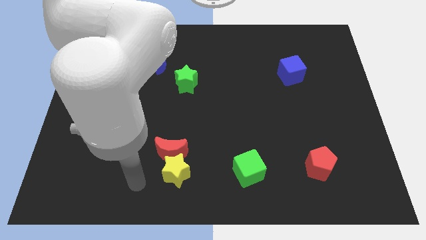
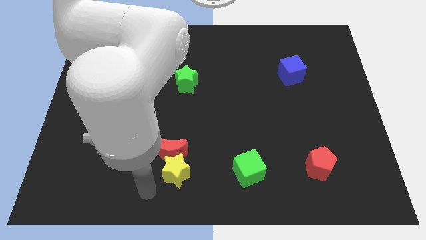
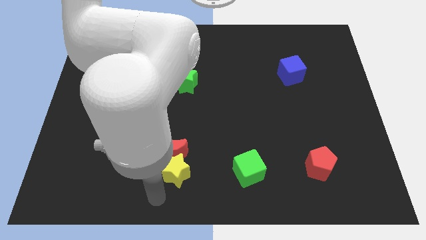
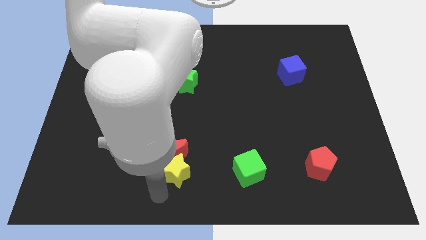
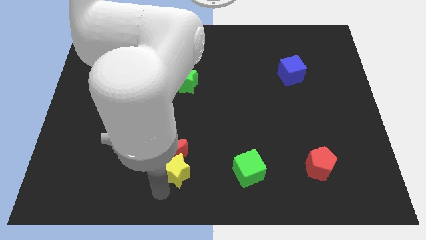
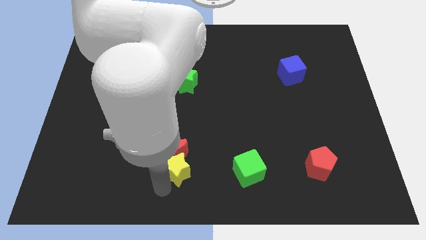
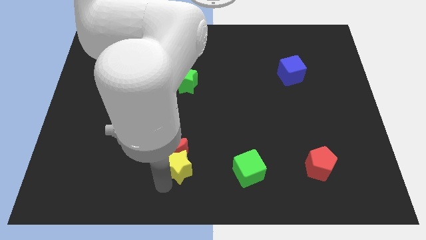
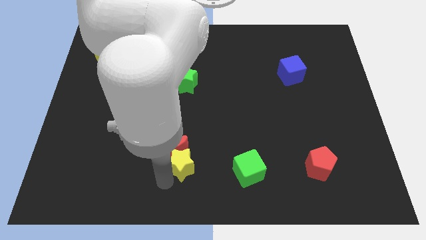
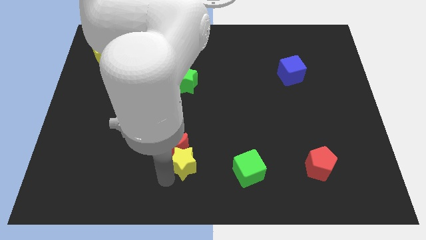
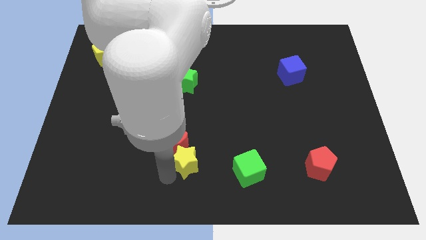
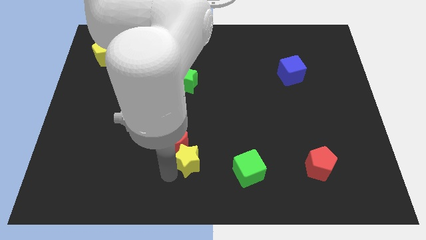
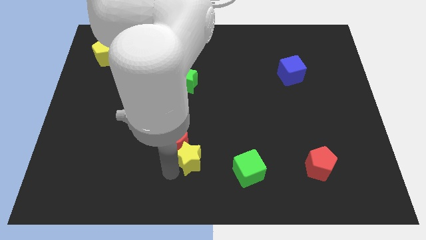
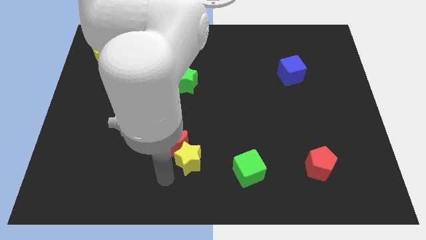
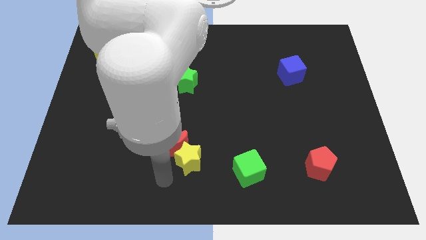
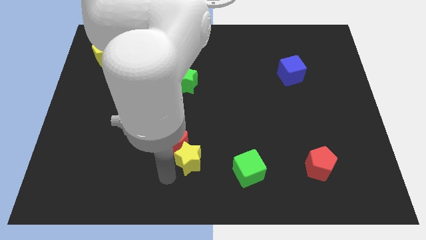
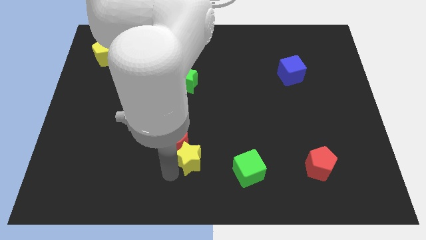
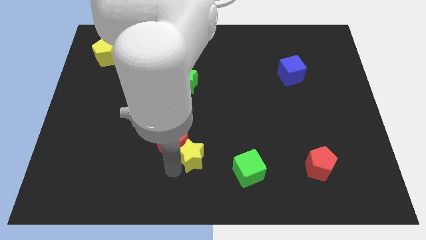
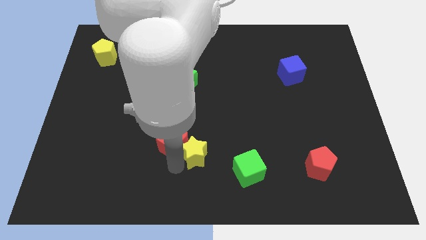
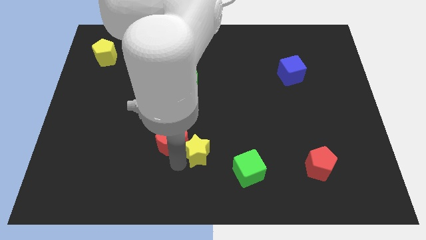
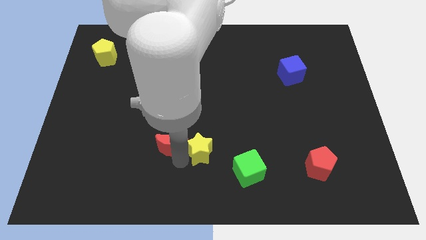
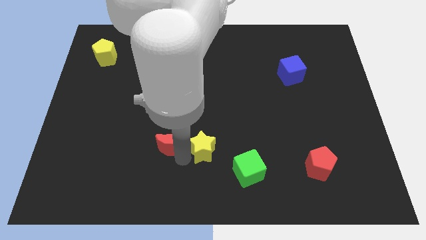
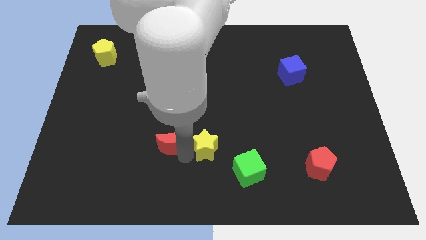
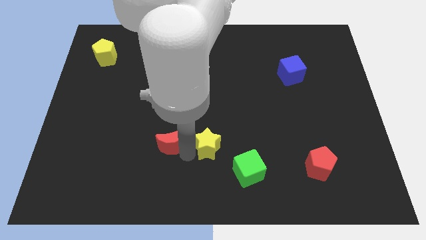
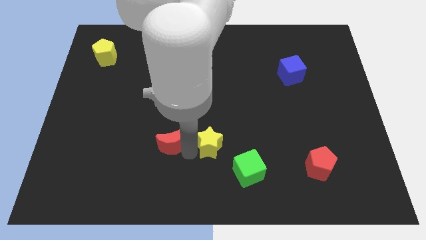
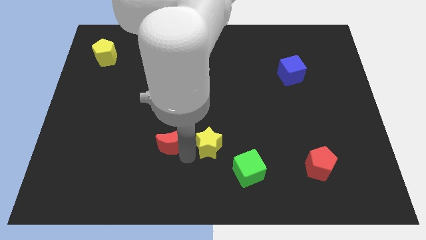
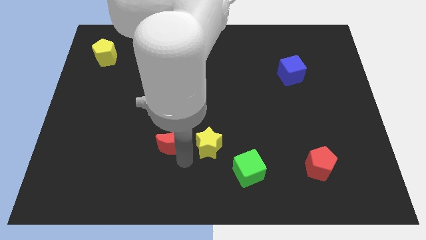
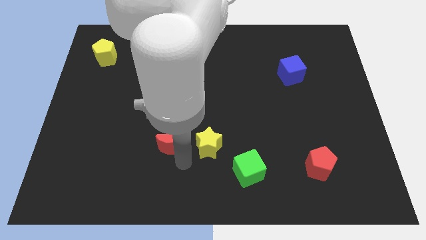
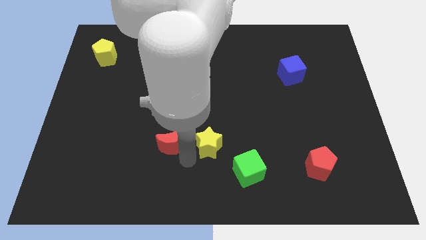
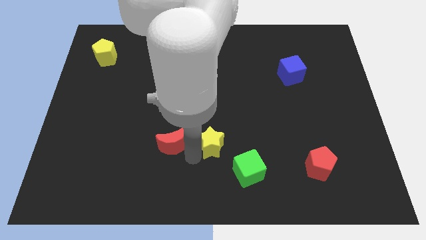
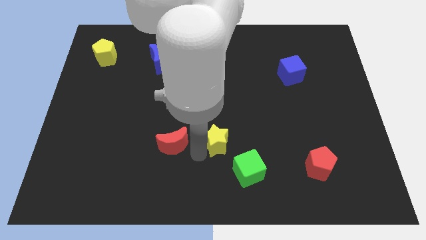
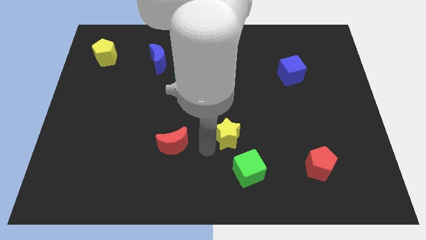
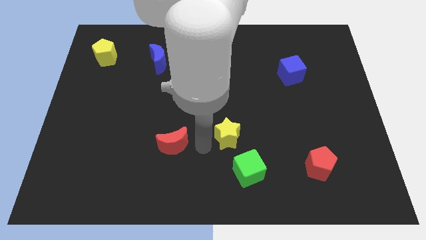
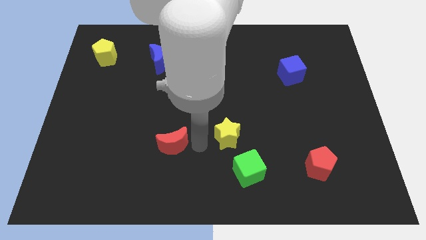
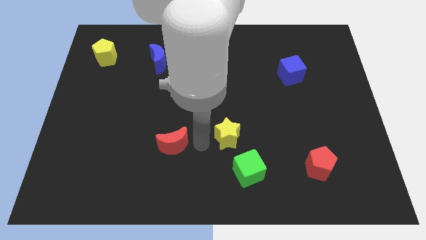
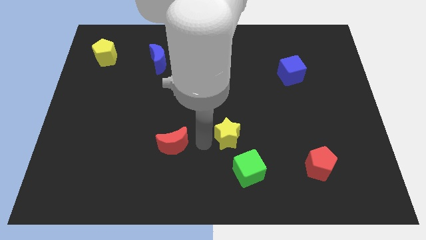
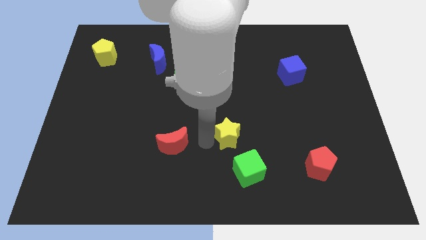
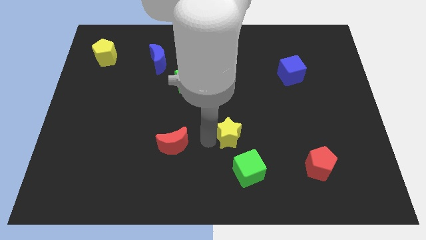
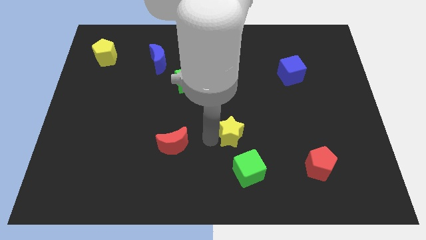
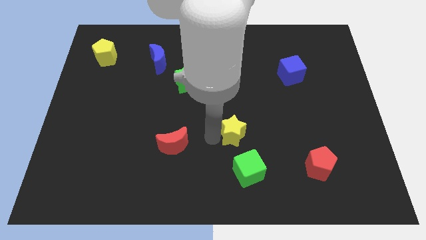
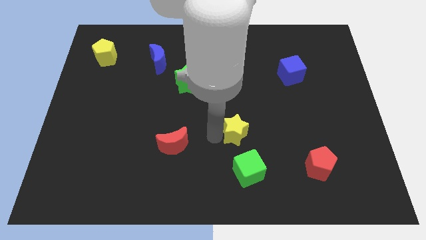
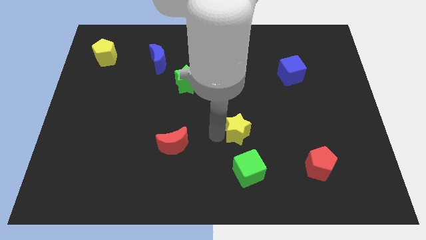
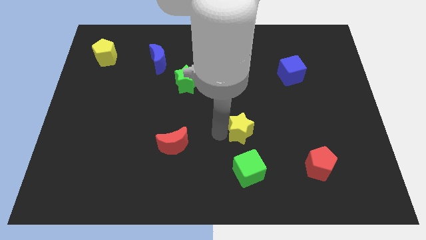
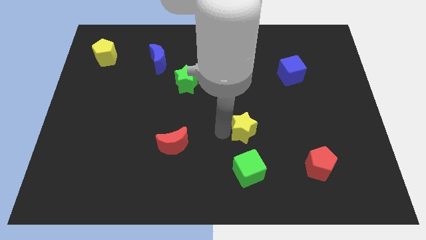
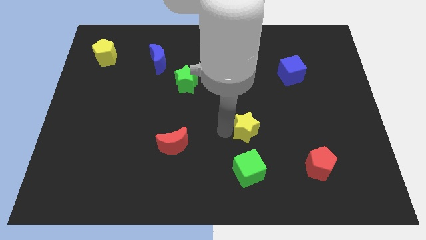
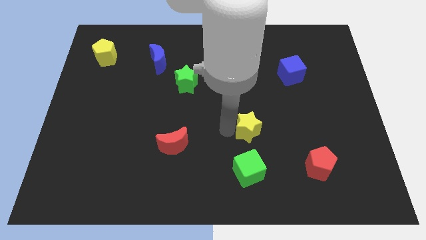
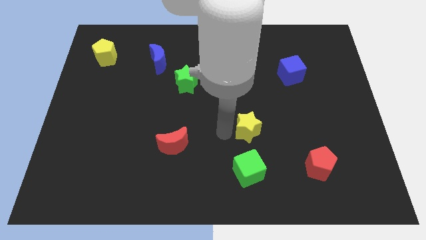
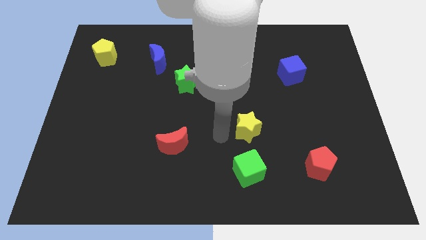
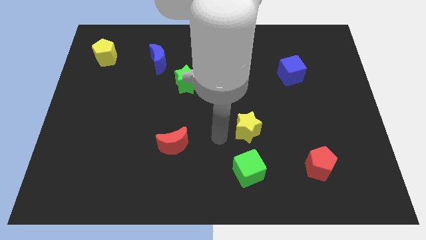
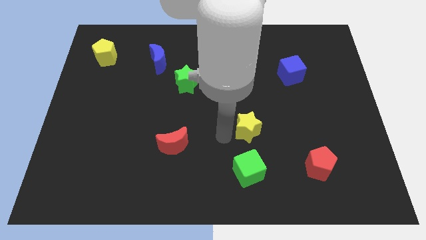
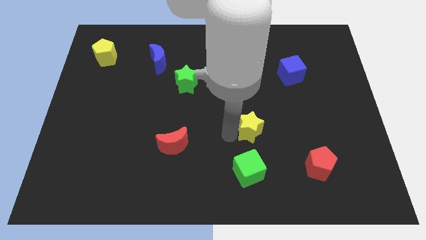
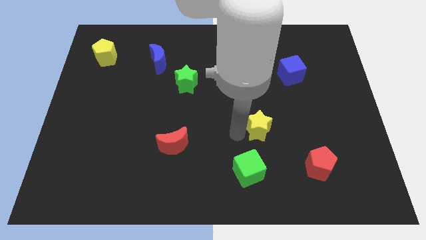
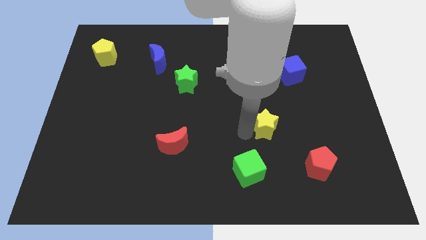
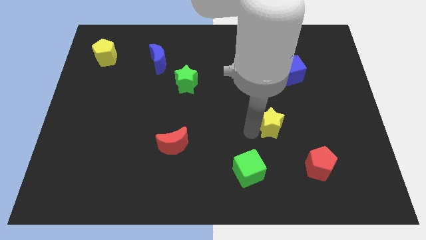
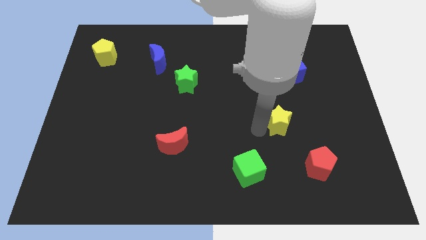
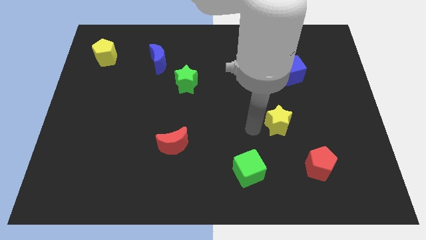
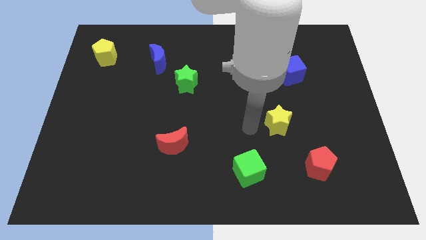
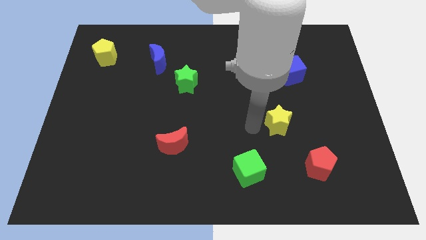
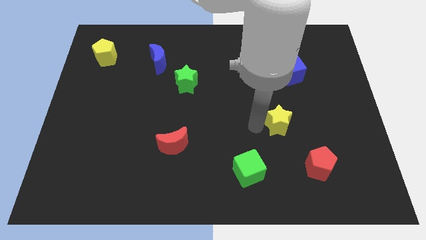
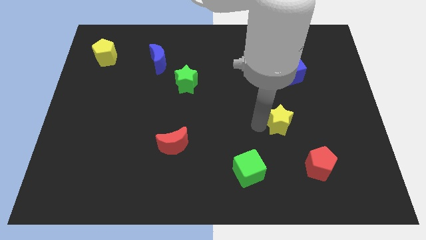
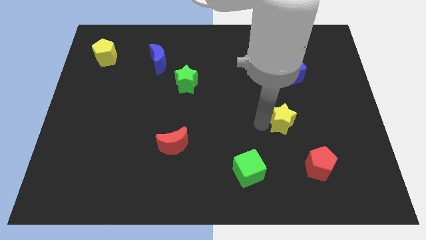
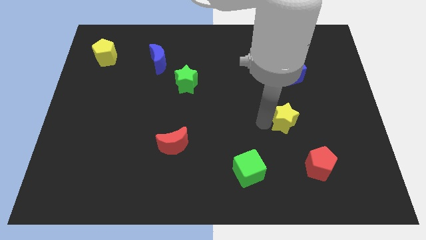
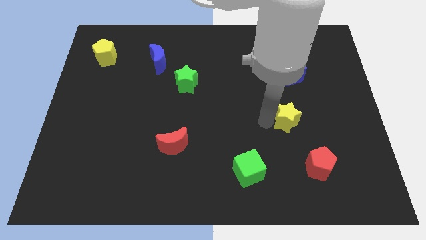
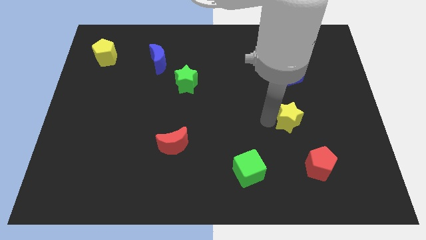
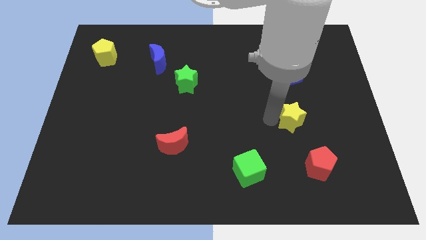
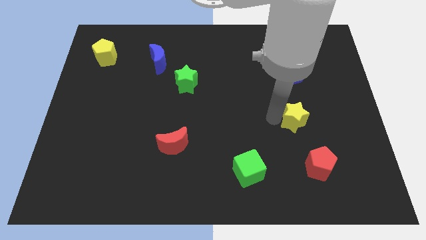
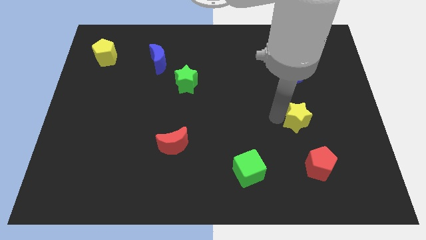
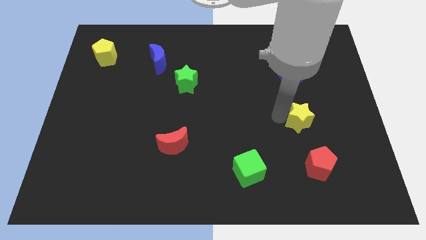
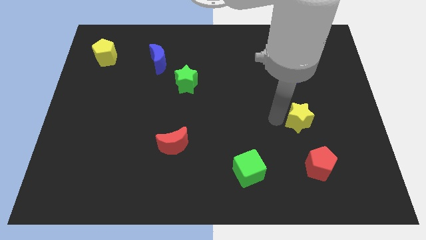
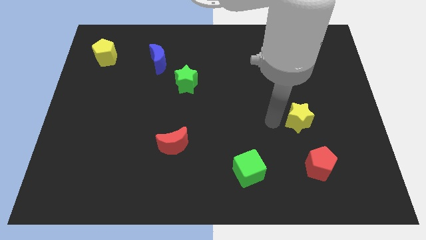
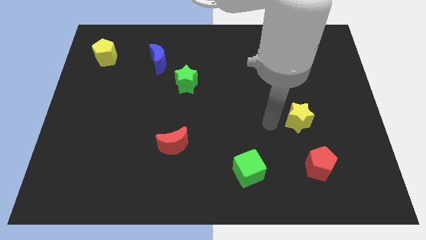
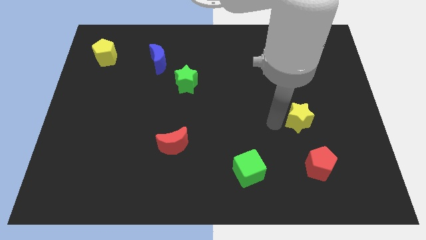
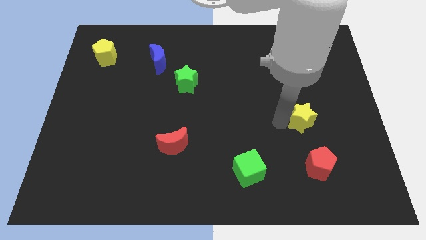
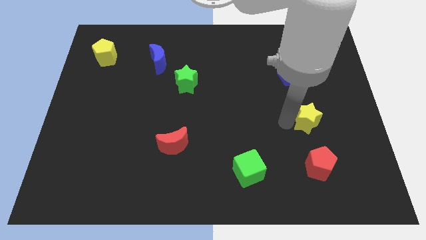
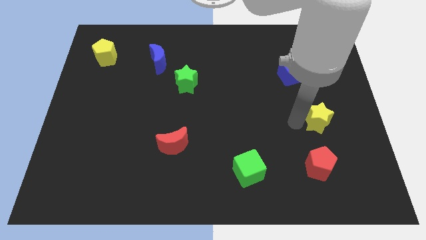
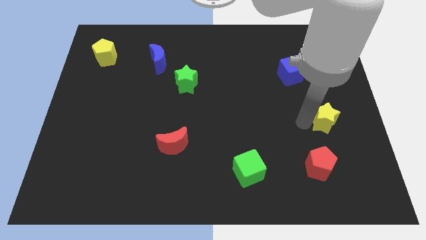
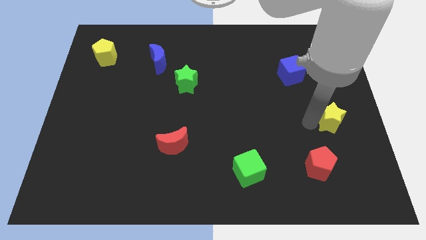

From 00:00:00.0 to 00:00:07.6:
move the yellow star to the center right
